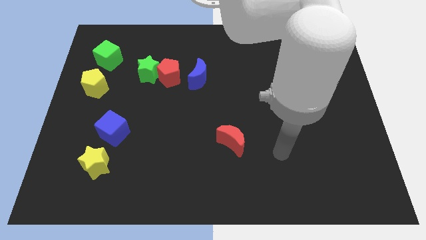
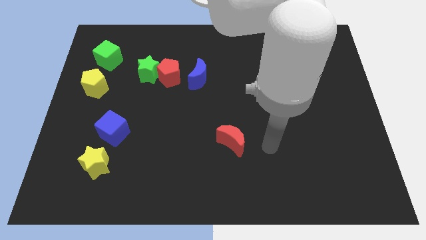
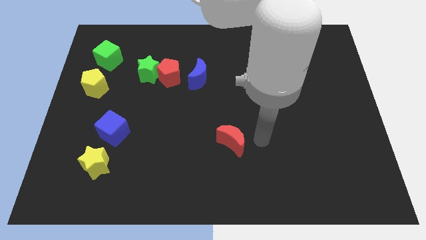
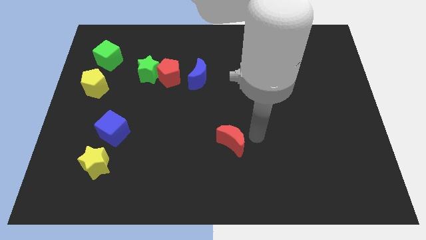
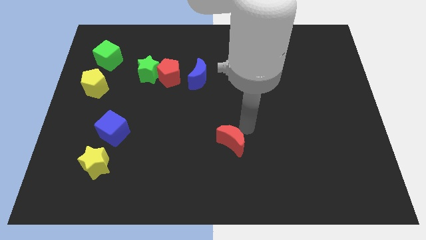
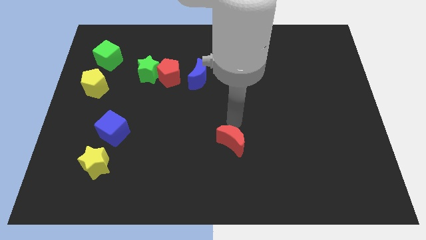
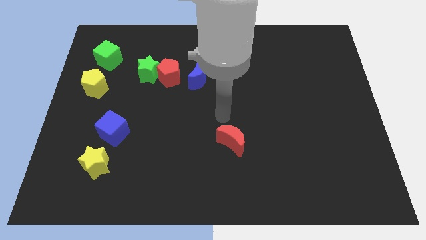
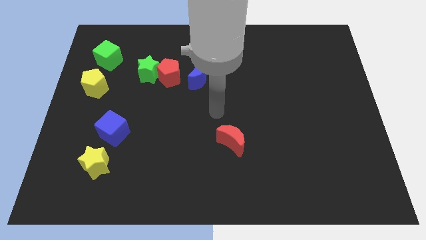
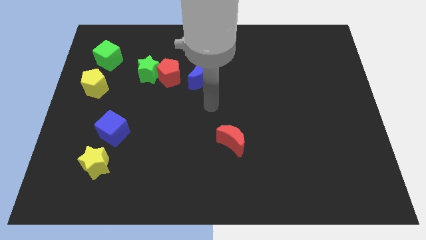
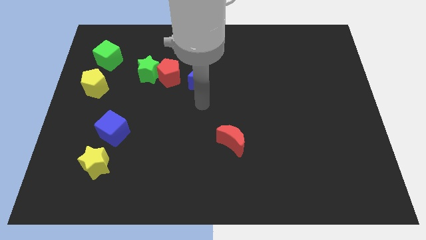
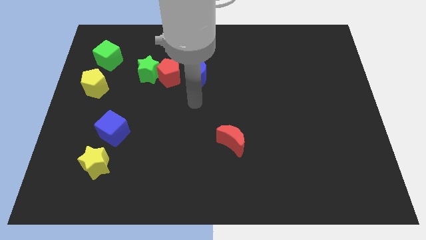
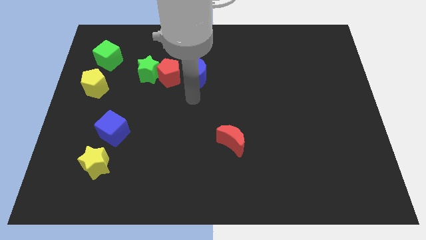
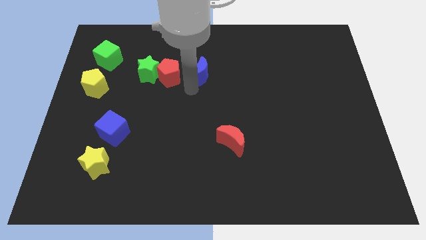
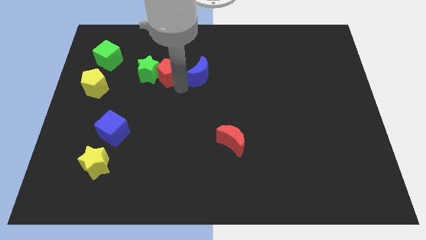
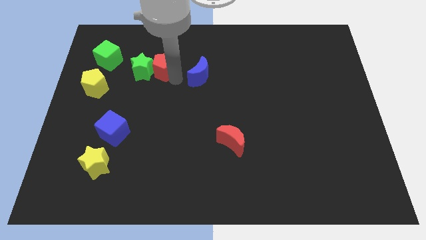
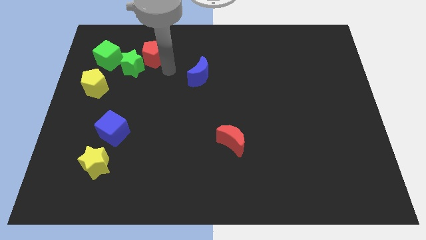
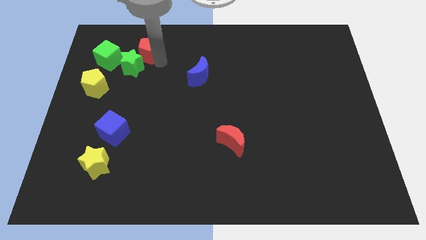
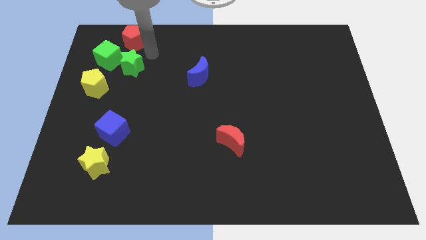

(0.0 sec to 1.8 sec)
separate the green star from the red pentagon

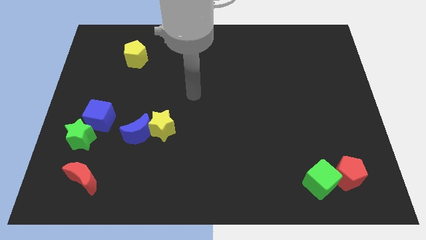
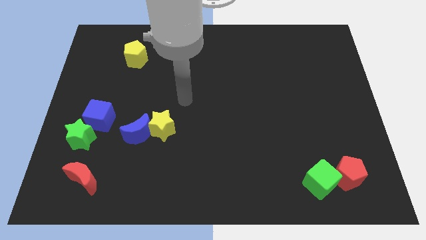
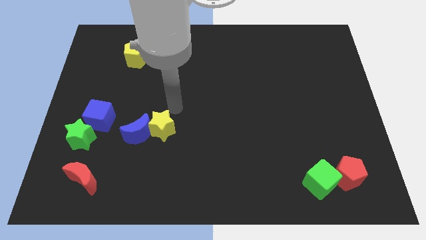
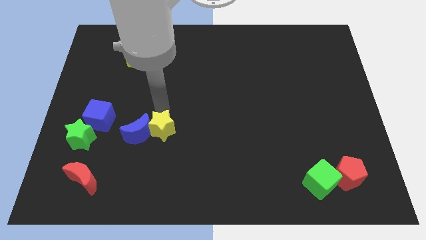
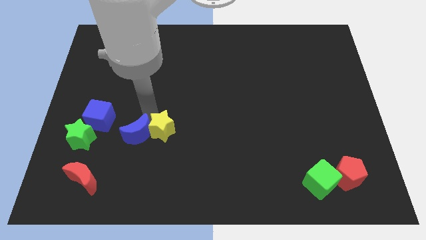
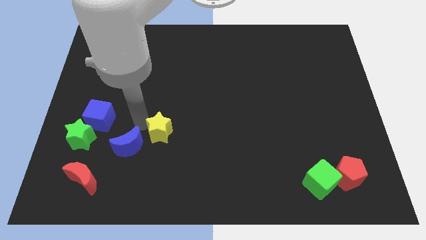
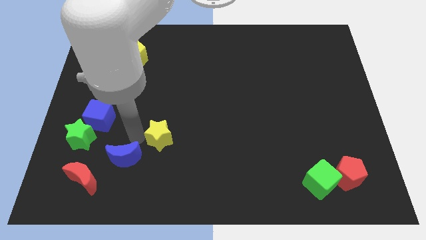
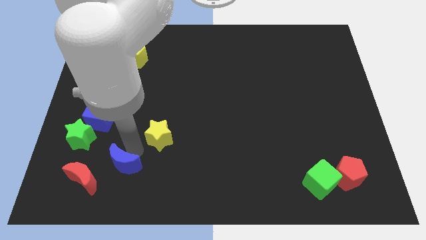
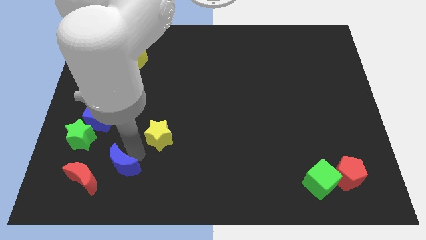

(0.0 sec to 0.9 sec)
separate the yellow star from the blue moon

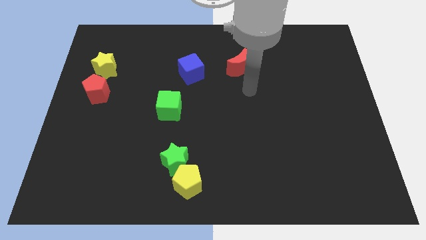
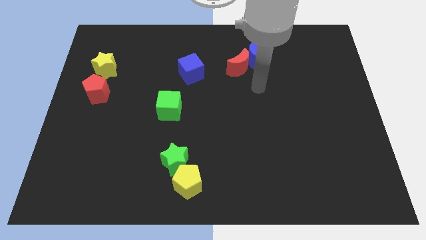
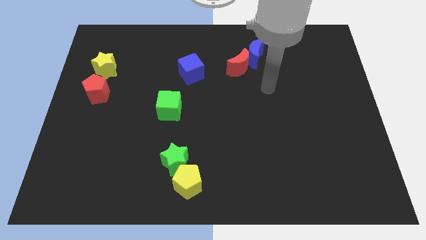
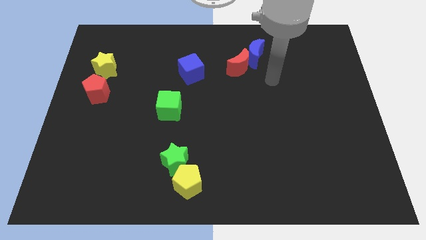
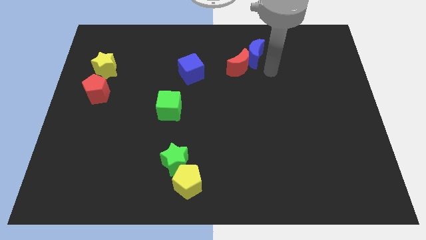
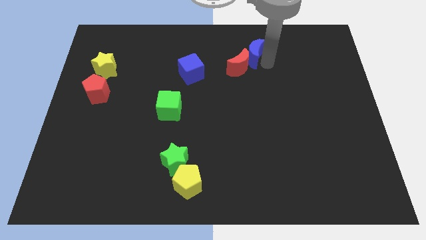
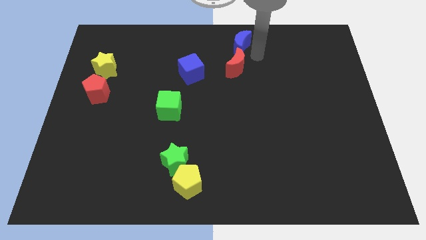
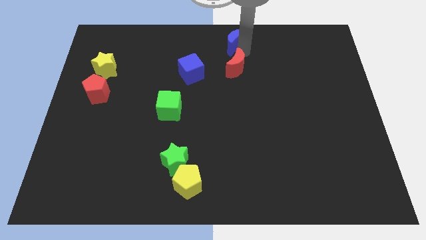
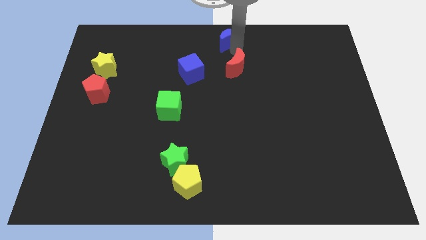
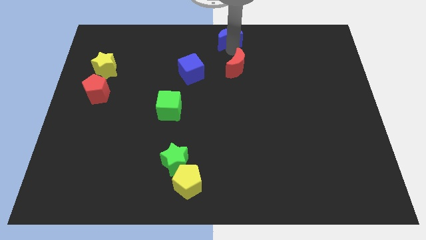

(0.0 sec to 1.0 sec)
pull the red moon apart from the blue moon

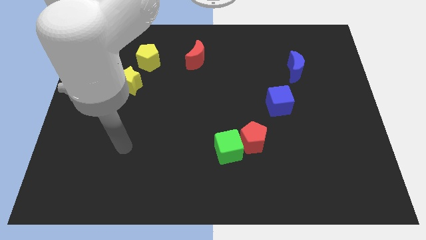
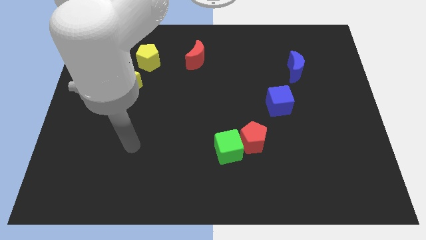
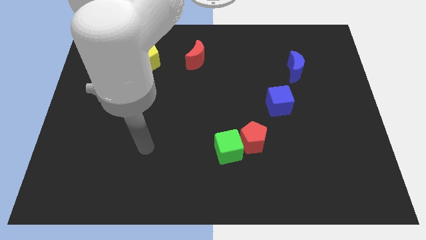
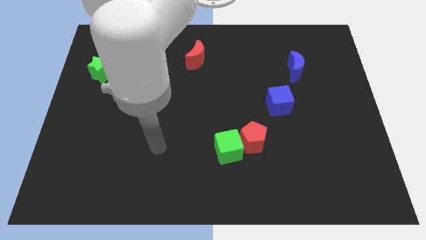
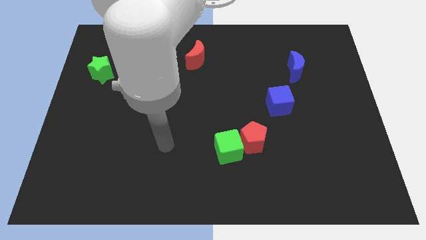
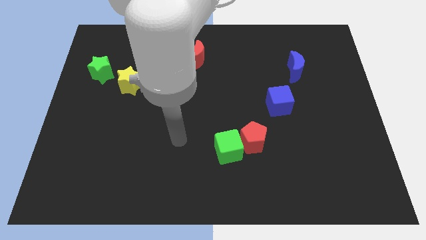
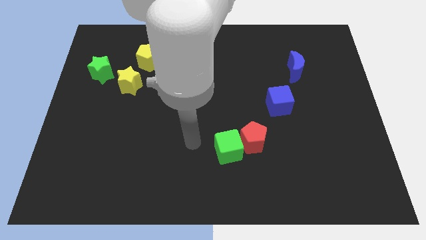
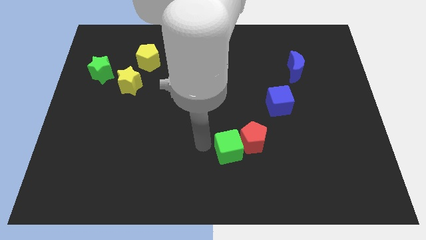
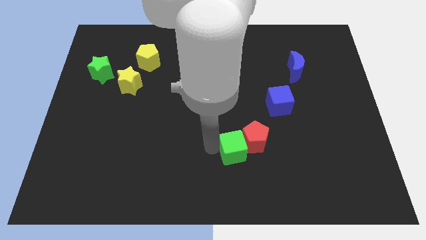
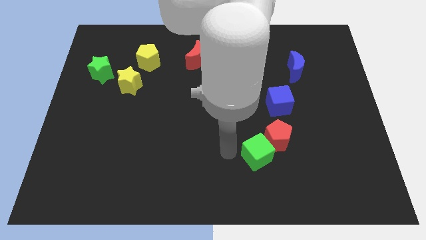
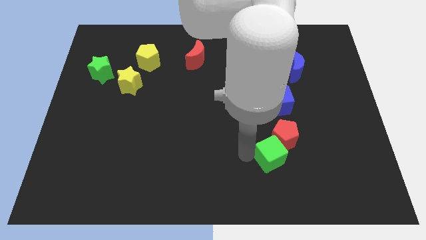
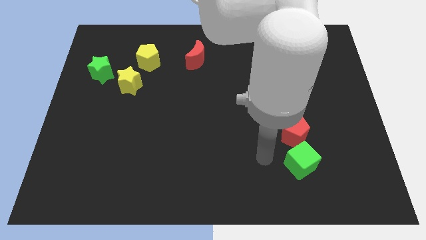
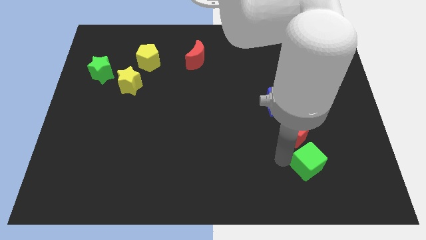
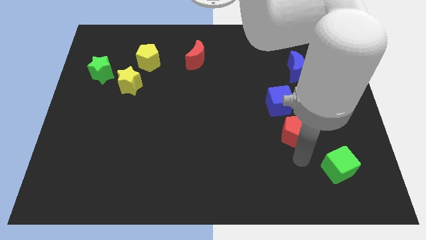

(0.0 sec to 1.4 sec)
move the red pentagon away from the green cube

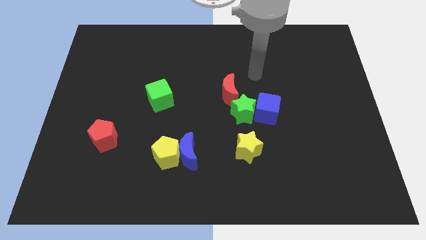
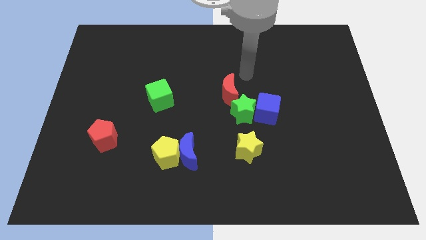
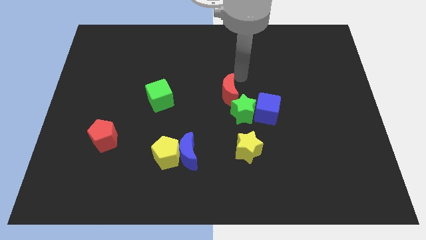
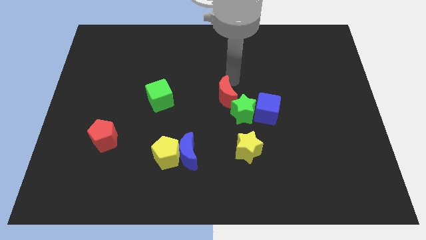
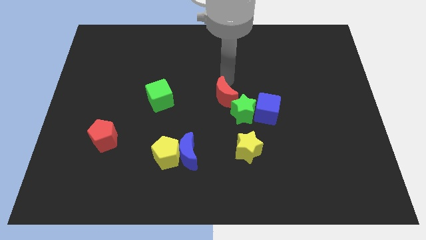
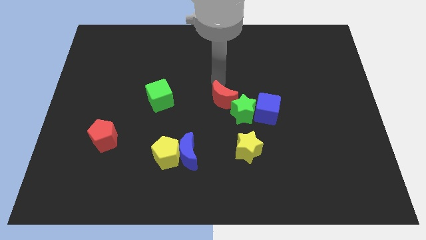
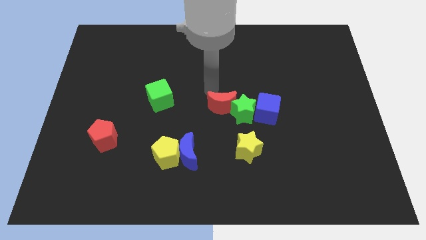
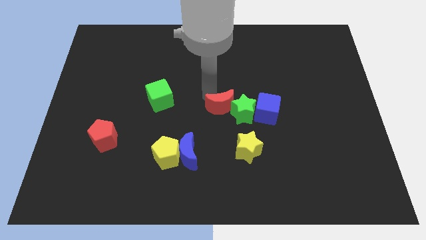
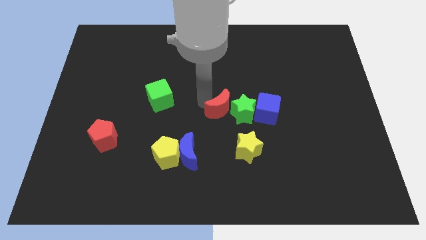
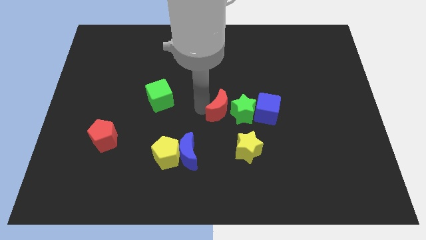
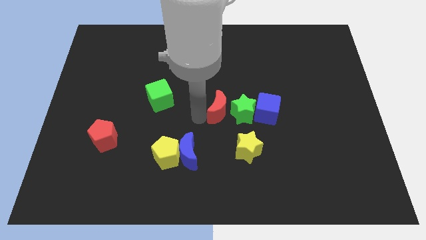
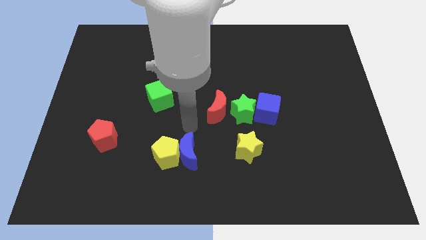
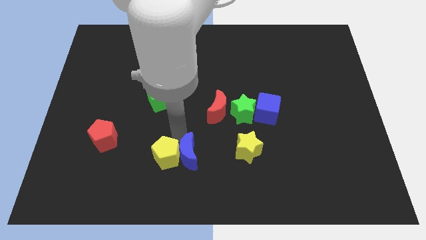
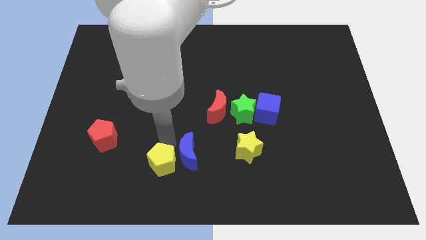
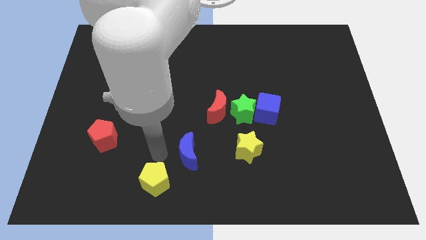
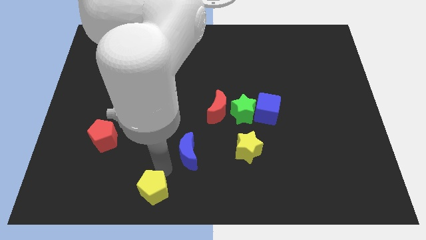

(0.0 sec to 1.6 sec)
pull the blue moon apart from the yellow pentagon

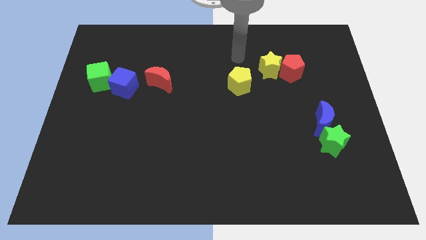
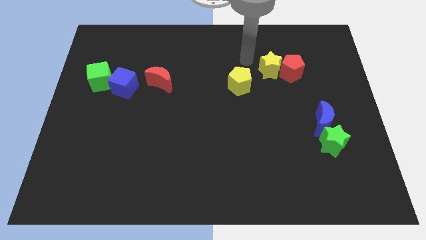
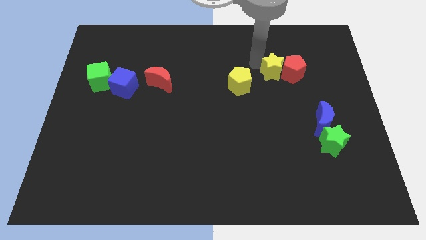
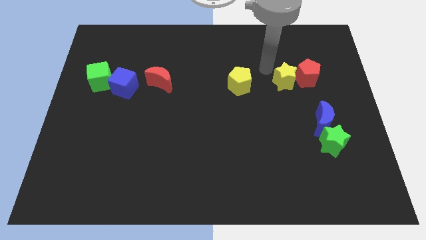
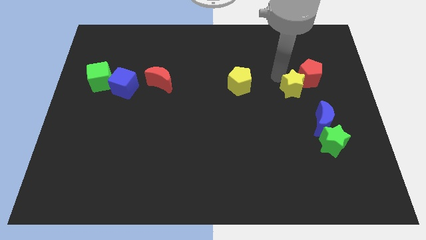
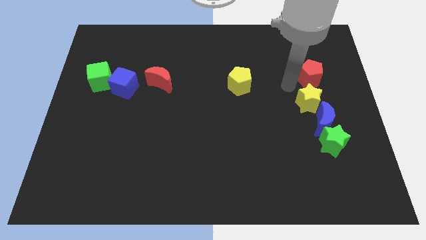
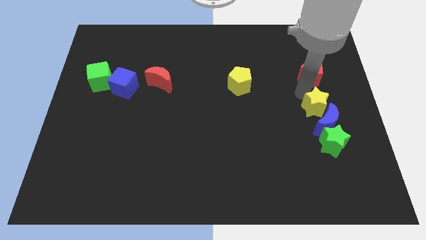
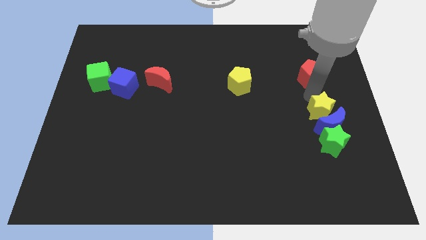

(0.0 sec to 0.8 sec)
pull the red pentagon apart from the yellow star

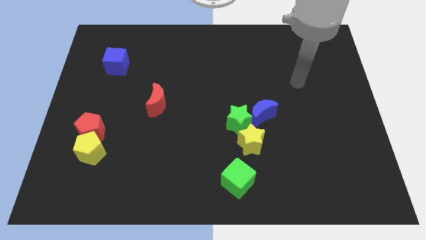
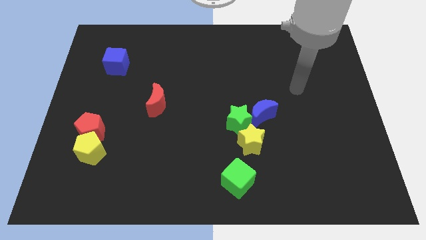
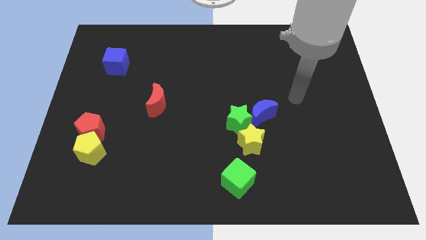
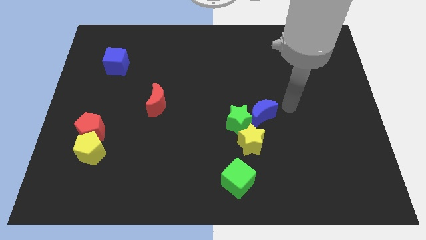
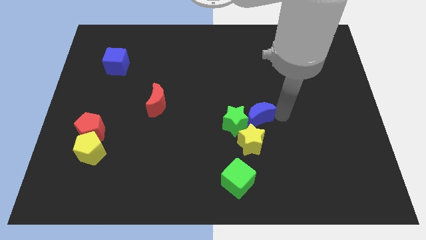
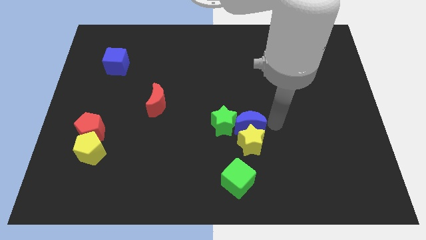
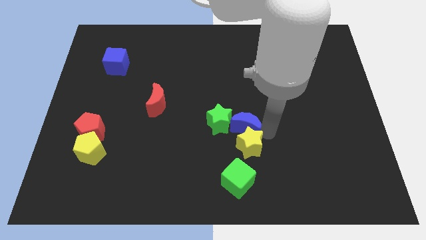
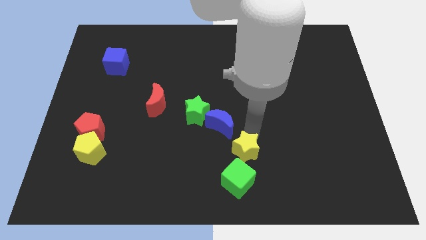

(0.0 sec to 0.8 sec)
separate the green star from the blue moon and yellow star

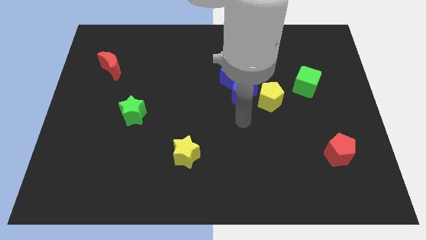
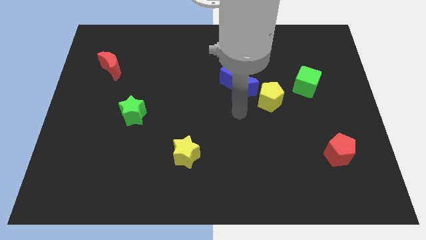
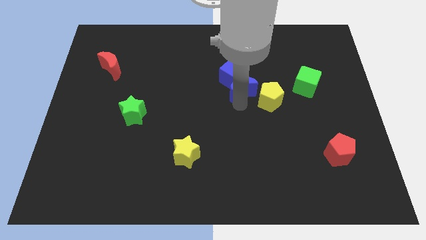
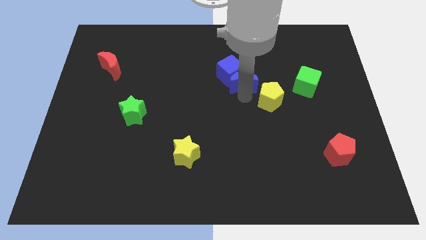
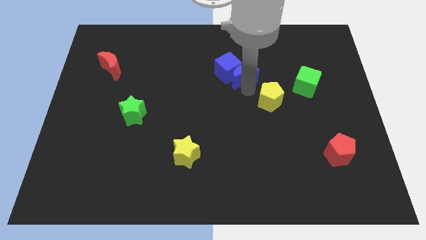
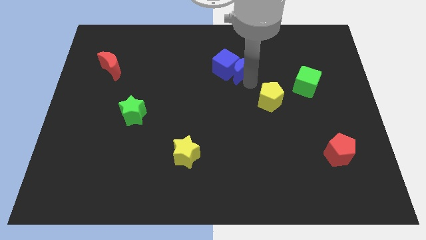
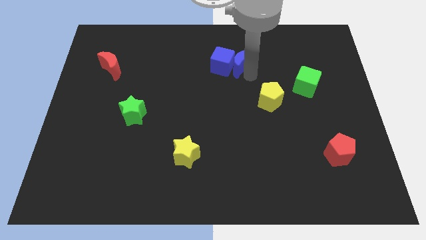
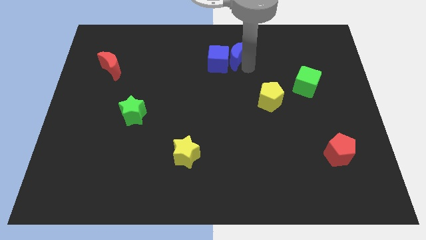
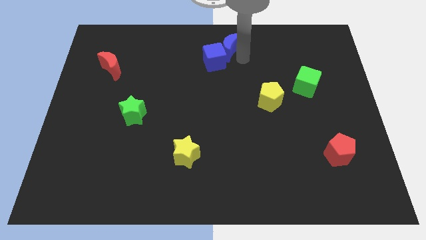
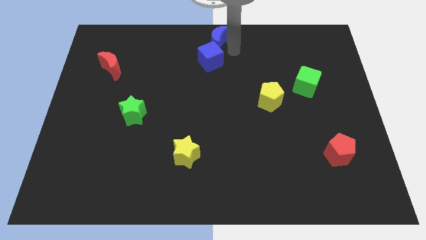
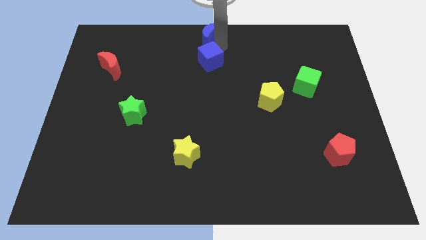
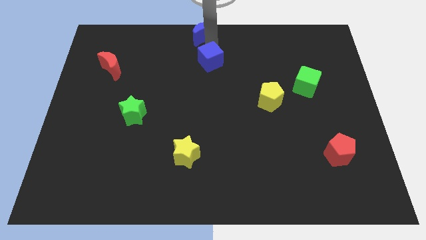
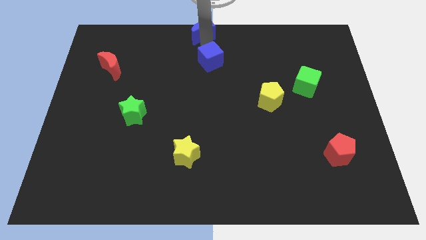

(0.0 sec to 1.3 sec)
pull the blue cube apart from the blue moon
